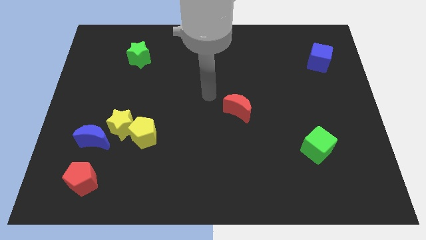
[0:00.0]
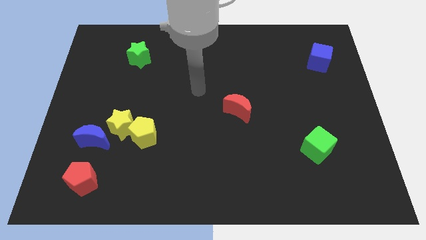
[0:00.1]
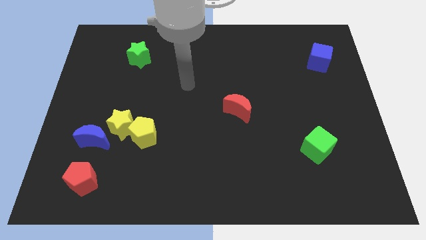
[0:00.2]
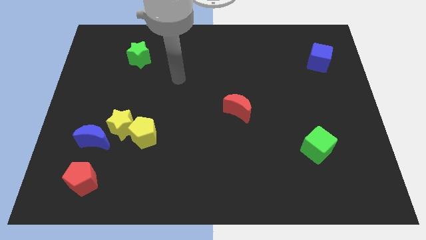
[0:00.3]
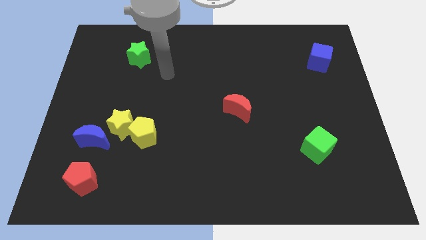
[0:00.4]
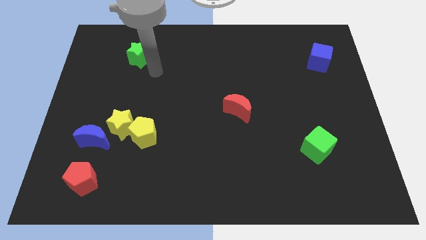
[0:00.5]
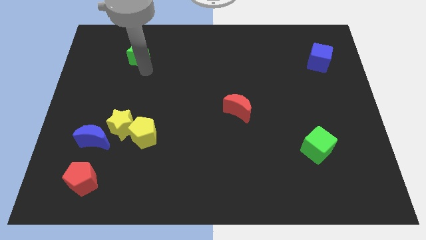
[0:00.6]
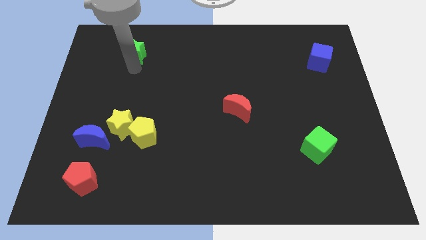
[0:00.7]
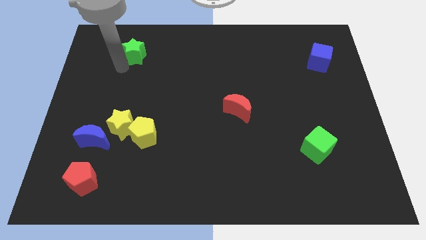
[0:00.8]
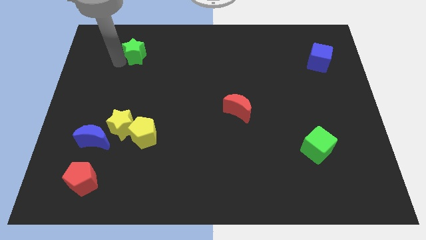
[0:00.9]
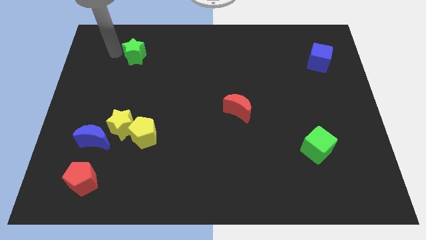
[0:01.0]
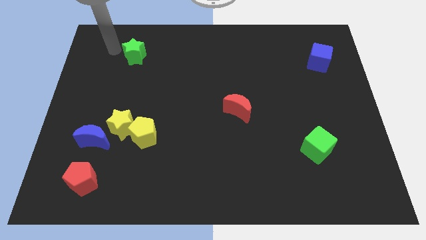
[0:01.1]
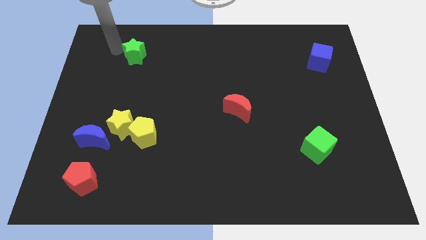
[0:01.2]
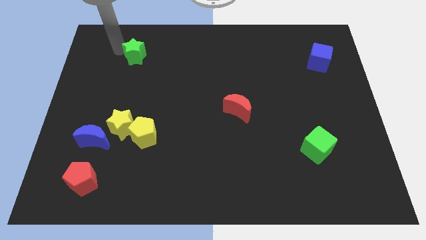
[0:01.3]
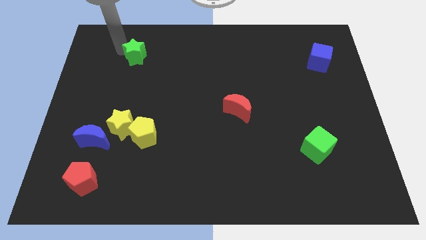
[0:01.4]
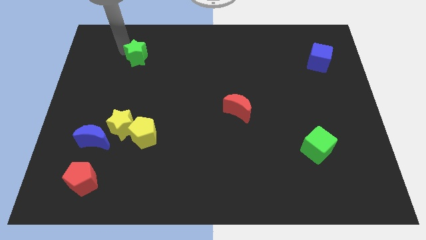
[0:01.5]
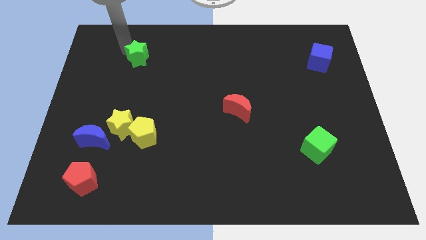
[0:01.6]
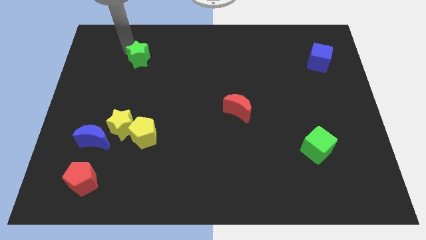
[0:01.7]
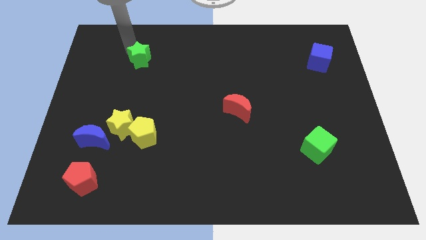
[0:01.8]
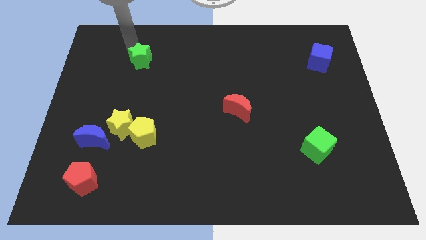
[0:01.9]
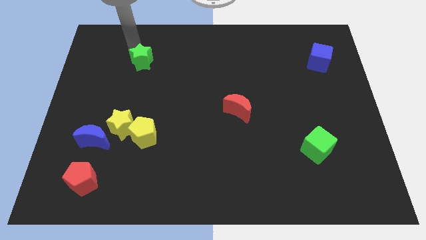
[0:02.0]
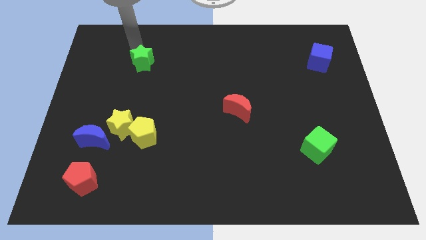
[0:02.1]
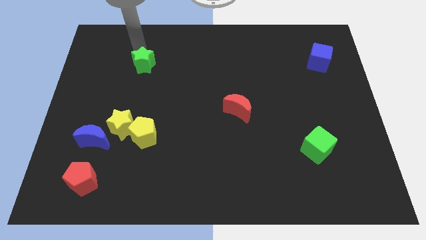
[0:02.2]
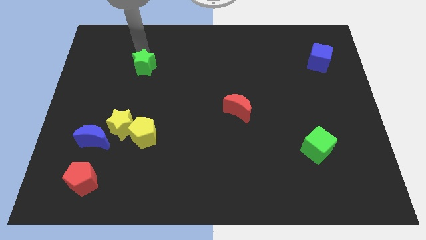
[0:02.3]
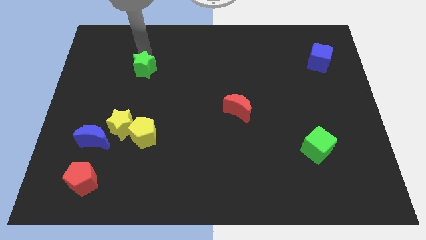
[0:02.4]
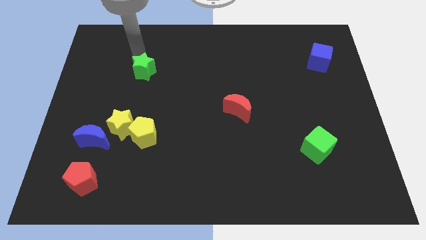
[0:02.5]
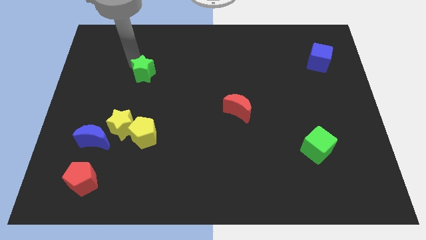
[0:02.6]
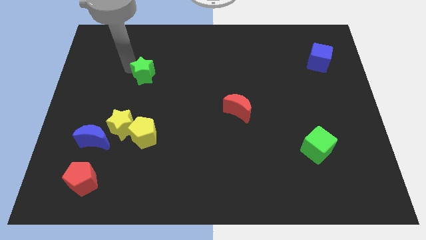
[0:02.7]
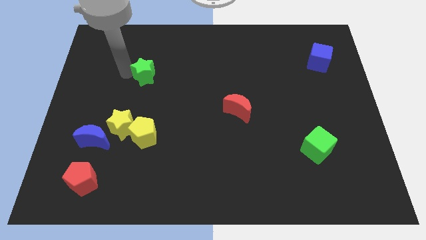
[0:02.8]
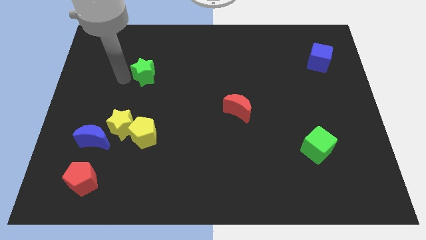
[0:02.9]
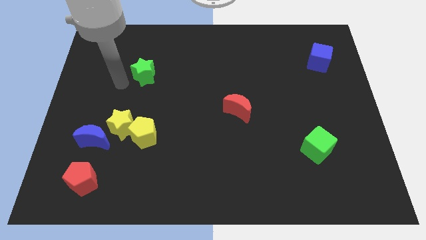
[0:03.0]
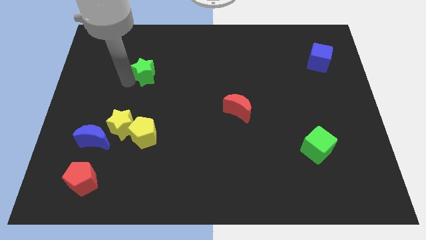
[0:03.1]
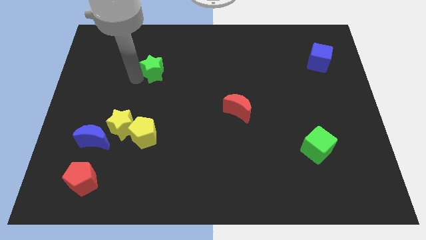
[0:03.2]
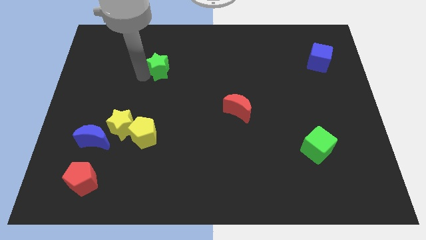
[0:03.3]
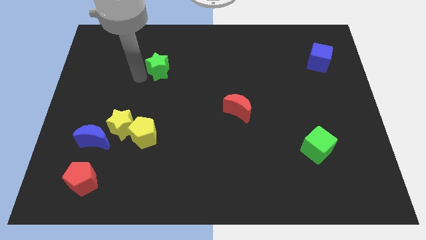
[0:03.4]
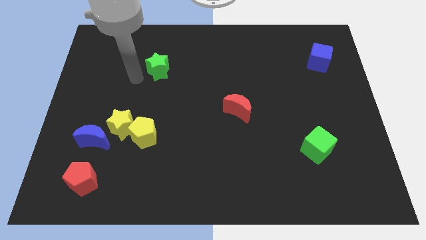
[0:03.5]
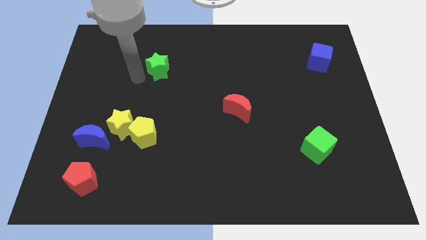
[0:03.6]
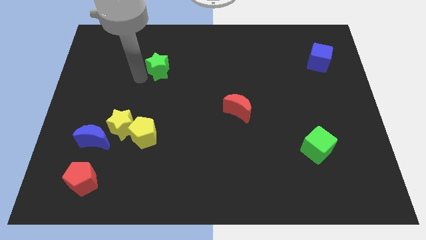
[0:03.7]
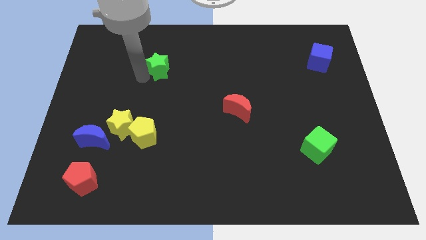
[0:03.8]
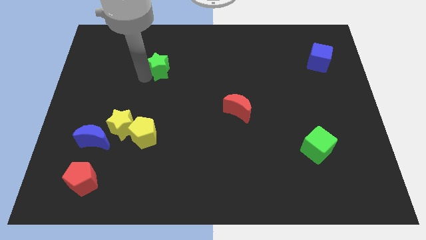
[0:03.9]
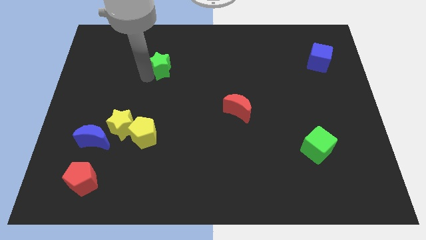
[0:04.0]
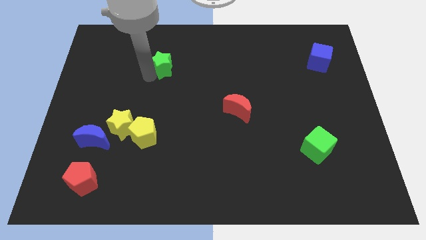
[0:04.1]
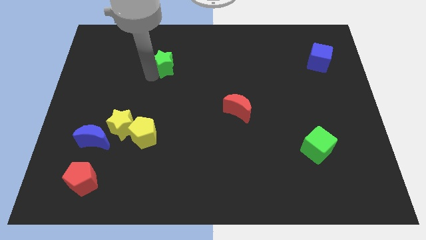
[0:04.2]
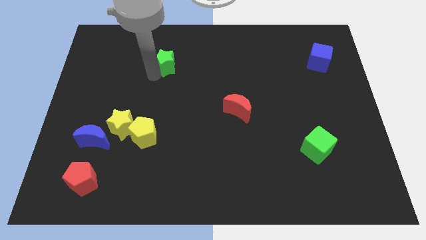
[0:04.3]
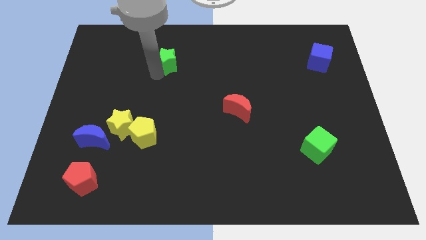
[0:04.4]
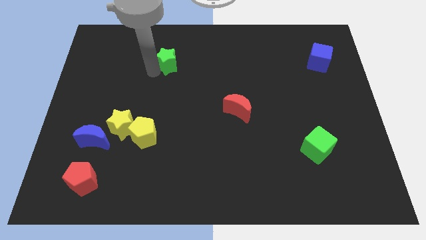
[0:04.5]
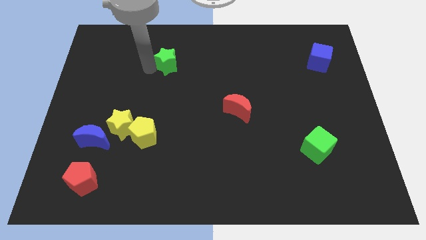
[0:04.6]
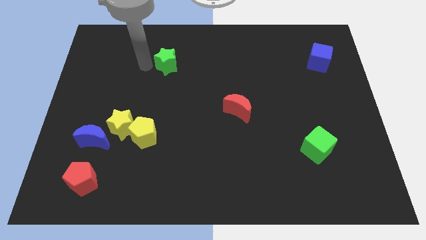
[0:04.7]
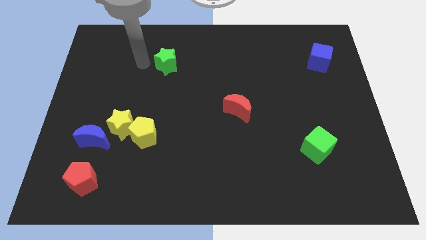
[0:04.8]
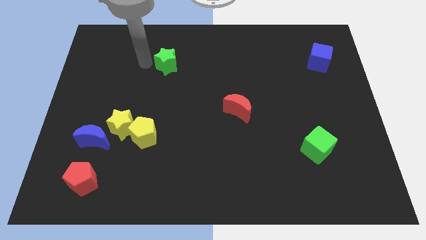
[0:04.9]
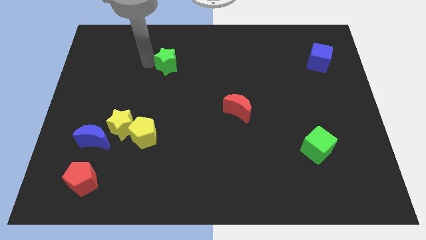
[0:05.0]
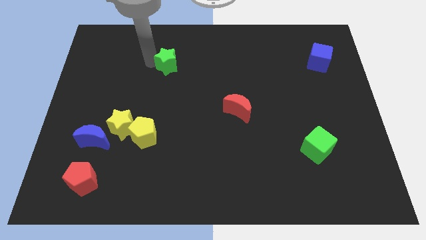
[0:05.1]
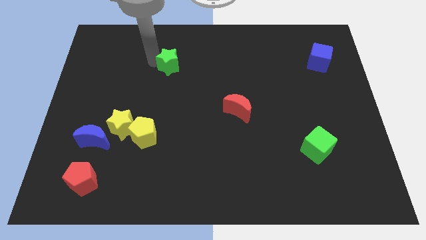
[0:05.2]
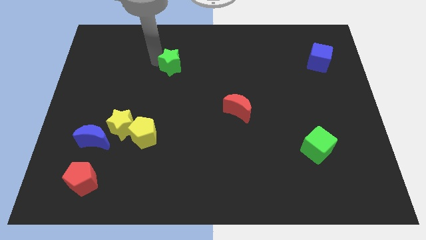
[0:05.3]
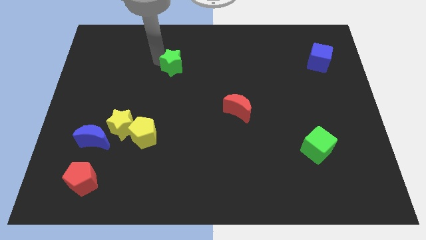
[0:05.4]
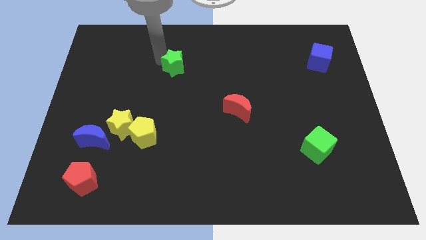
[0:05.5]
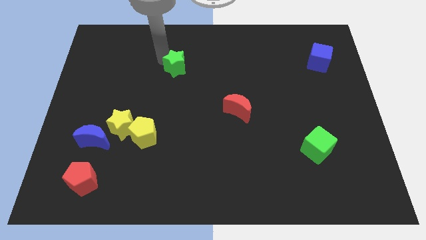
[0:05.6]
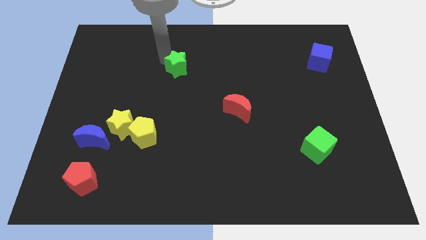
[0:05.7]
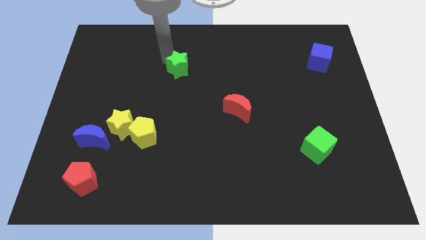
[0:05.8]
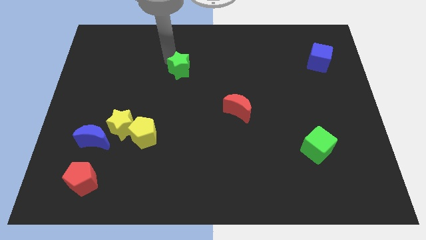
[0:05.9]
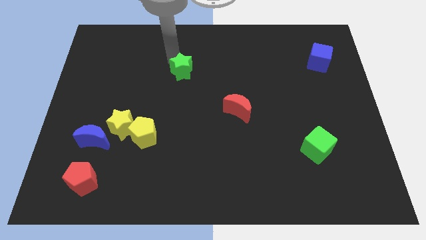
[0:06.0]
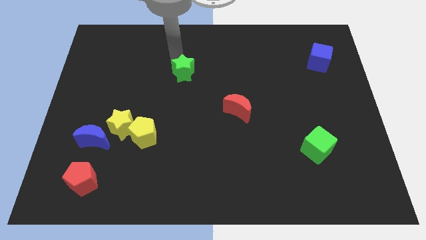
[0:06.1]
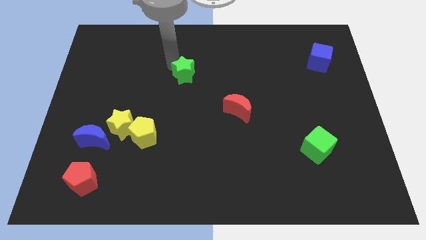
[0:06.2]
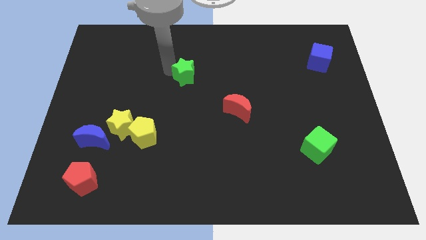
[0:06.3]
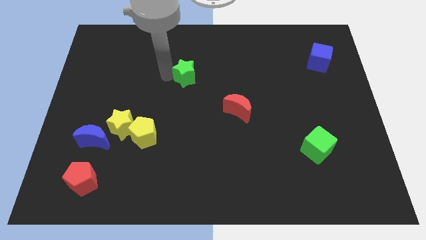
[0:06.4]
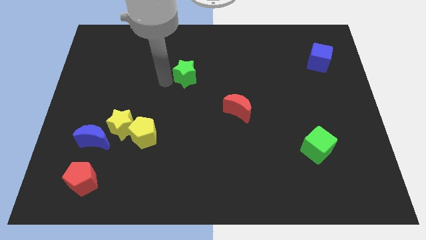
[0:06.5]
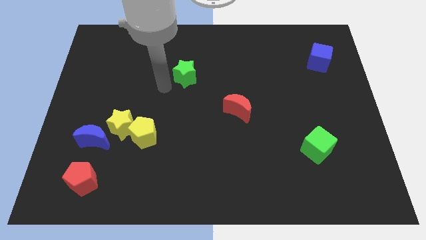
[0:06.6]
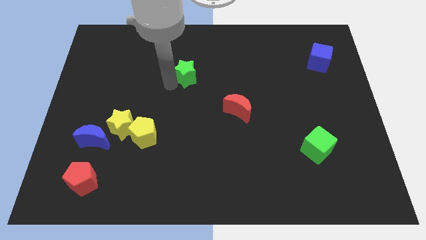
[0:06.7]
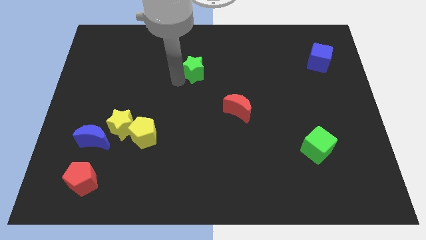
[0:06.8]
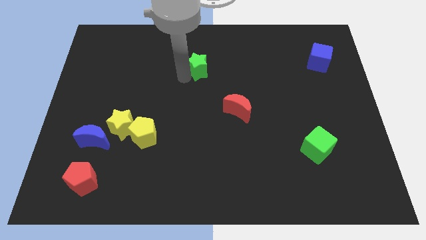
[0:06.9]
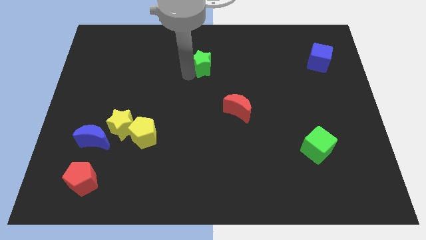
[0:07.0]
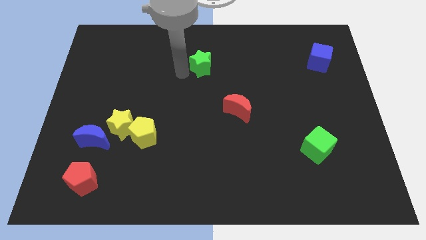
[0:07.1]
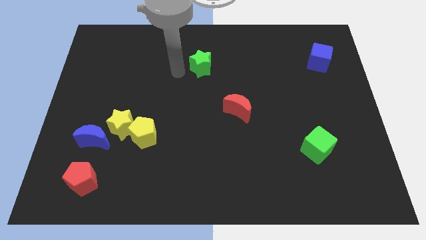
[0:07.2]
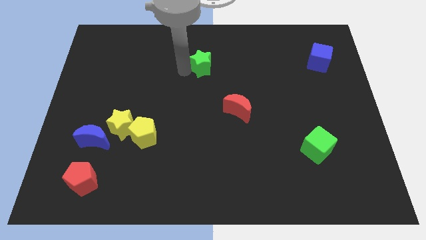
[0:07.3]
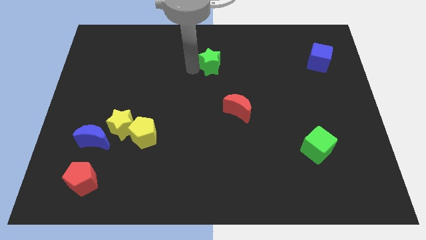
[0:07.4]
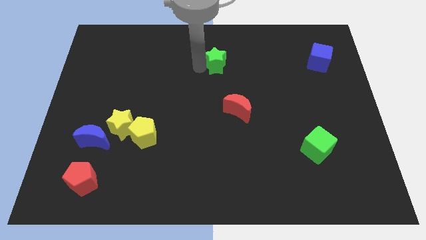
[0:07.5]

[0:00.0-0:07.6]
push the green star to the right

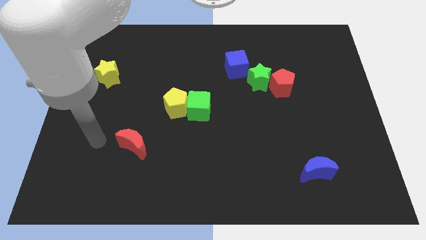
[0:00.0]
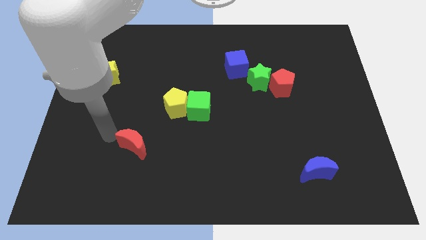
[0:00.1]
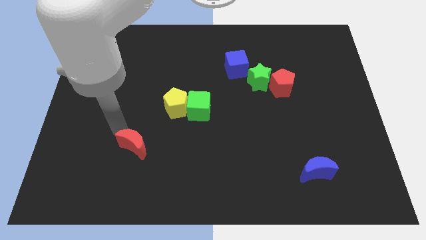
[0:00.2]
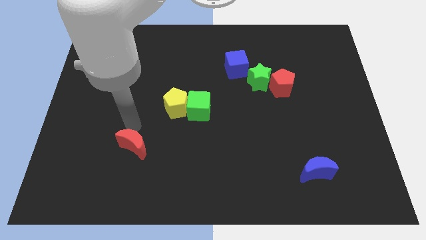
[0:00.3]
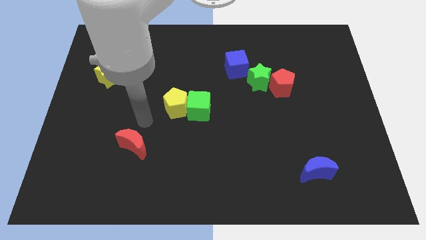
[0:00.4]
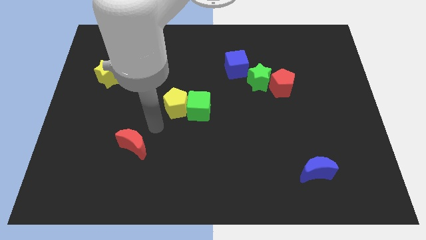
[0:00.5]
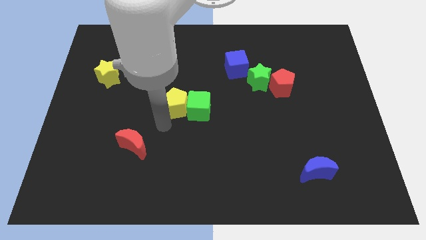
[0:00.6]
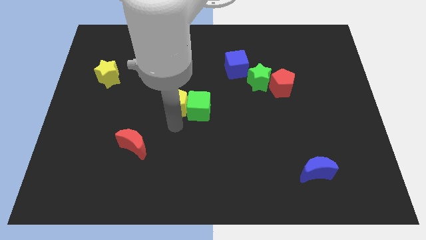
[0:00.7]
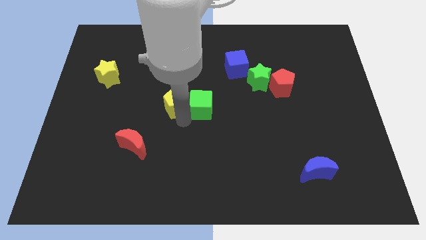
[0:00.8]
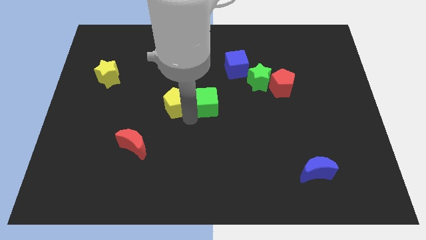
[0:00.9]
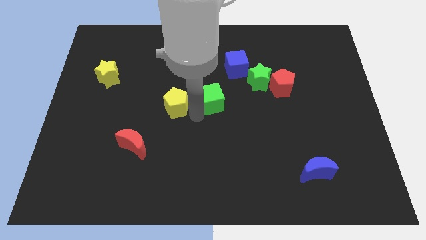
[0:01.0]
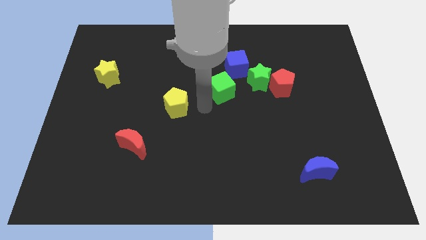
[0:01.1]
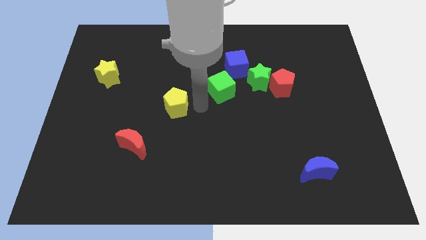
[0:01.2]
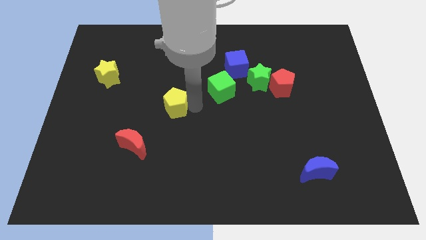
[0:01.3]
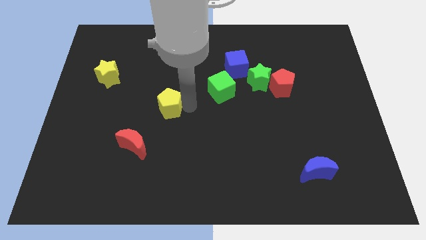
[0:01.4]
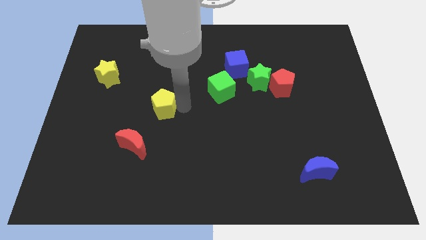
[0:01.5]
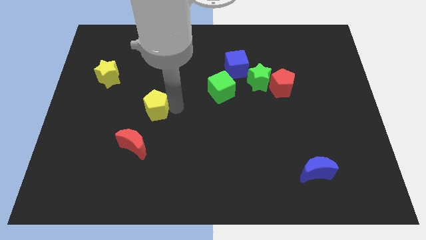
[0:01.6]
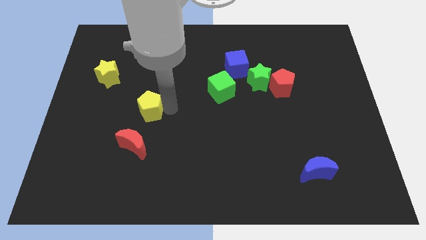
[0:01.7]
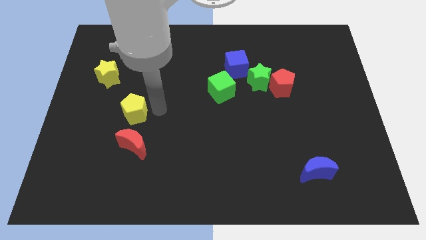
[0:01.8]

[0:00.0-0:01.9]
slightly push the yellow pentagon to the left
